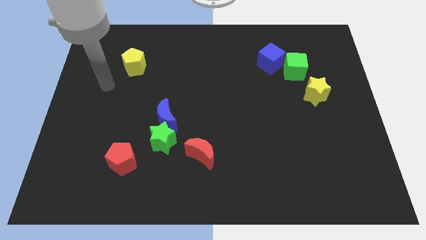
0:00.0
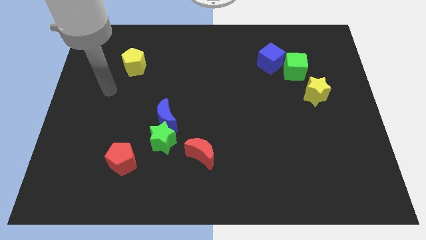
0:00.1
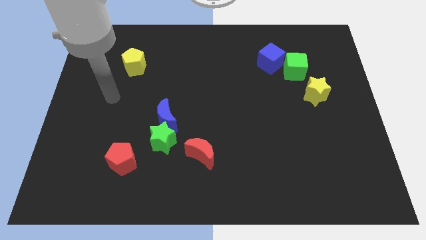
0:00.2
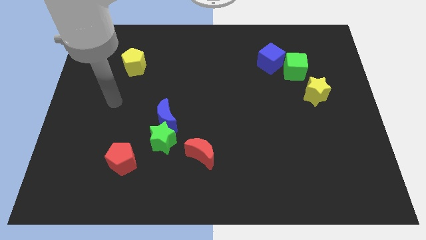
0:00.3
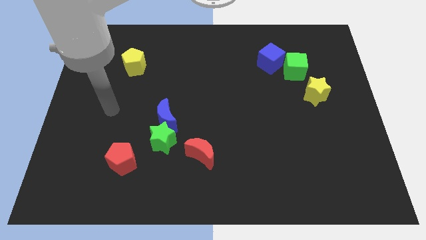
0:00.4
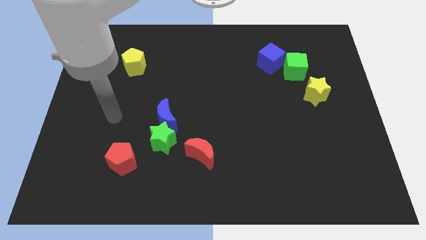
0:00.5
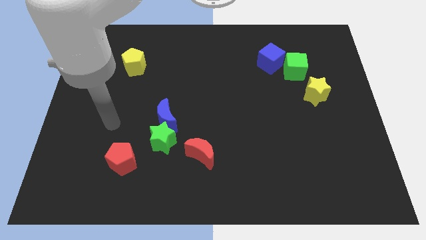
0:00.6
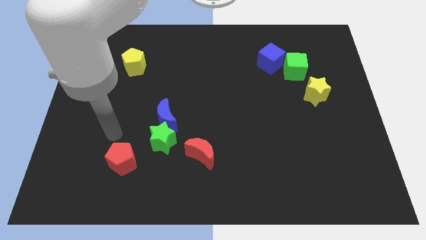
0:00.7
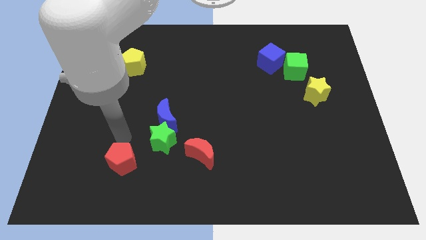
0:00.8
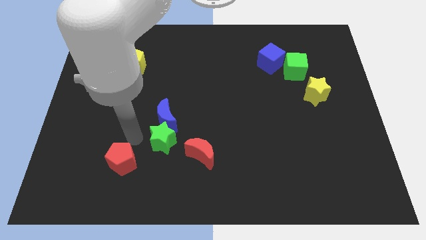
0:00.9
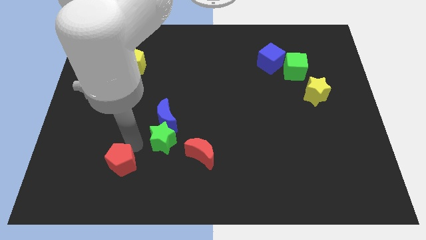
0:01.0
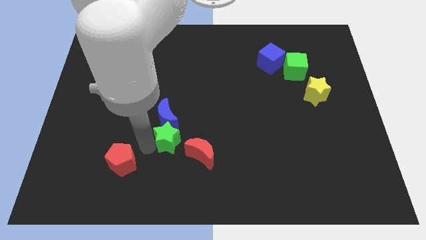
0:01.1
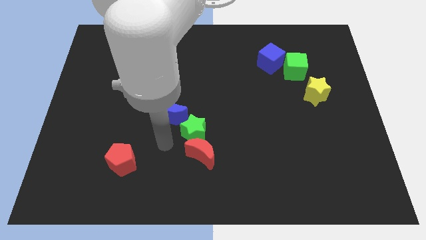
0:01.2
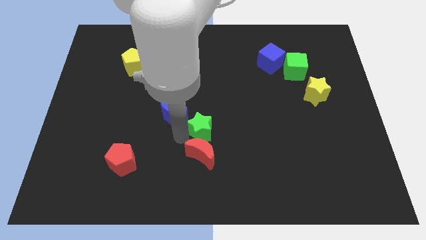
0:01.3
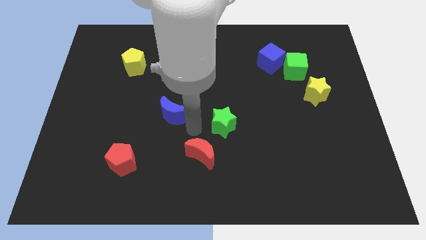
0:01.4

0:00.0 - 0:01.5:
pull the blue moon apart from the green star

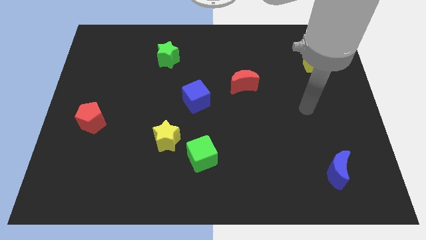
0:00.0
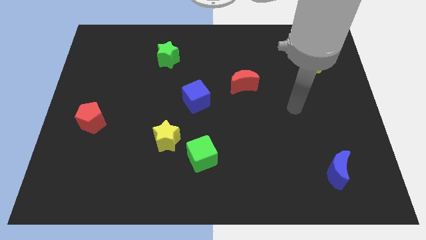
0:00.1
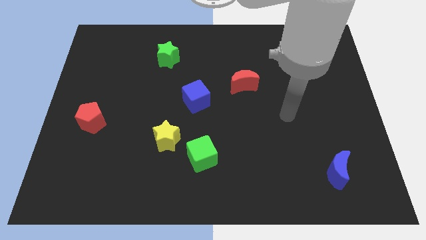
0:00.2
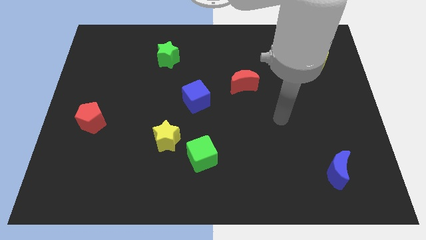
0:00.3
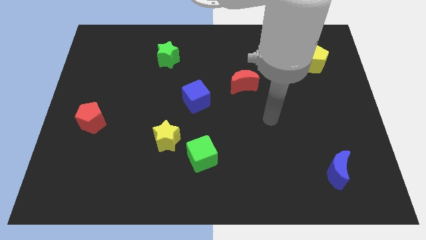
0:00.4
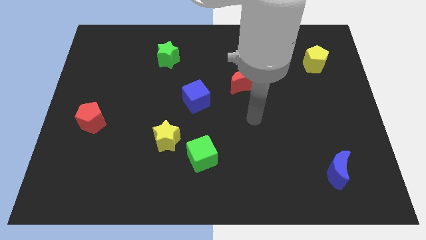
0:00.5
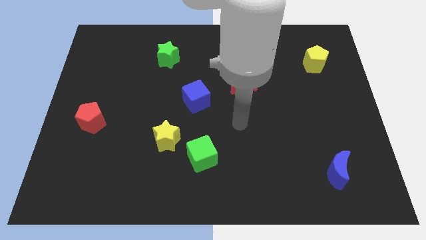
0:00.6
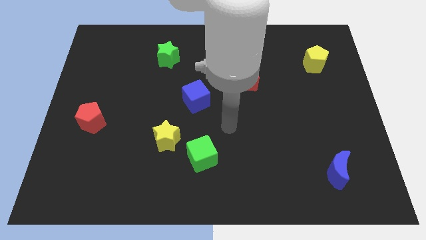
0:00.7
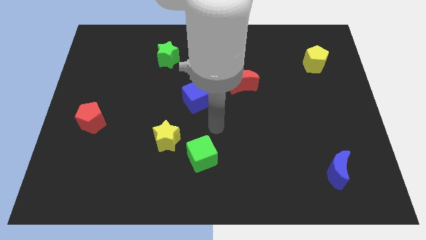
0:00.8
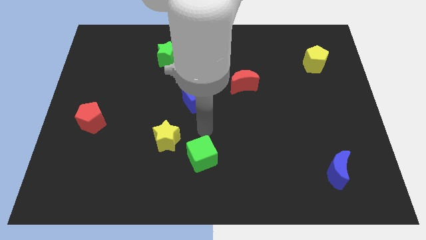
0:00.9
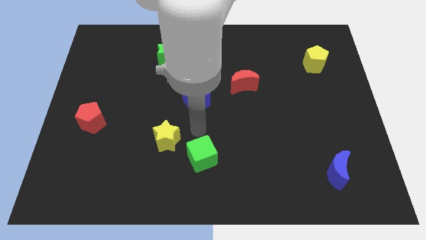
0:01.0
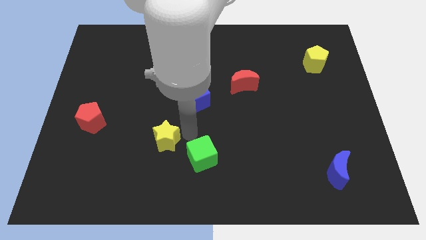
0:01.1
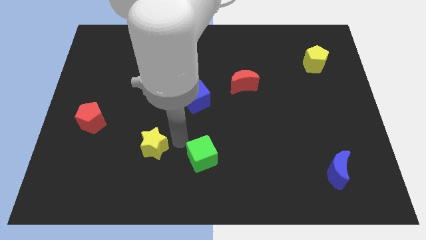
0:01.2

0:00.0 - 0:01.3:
pull the green cube apart from the yellow star

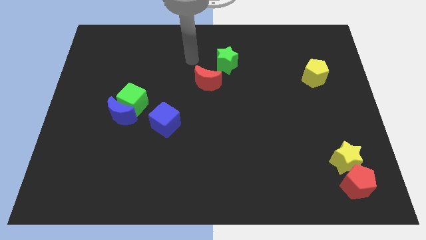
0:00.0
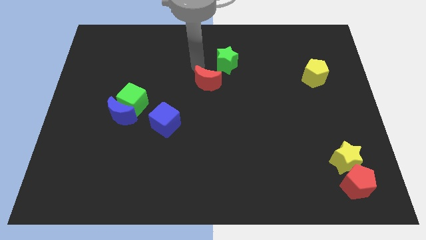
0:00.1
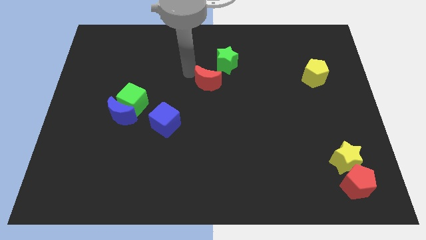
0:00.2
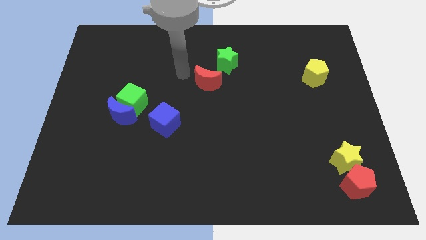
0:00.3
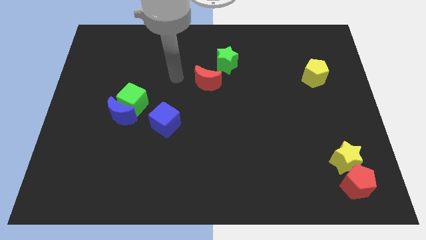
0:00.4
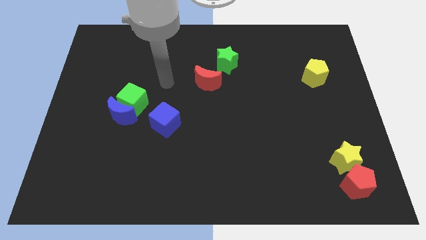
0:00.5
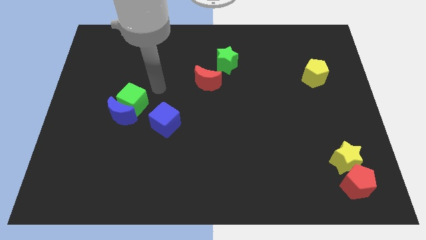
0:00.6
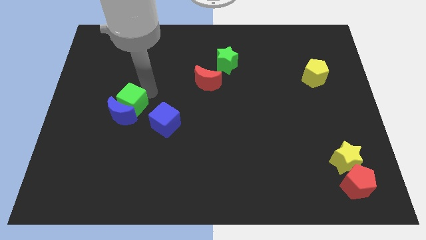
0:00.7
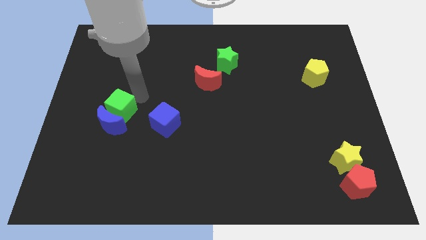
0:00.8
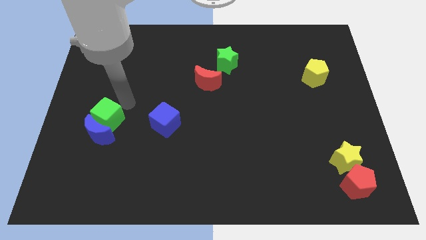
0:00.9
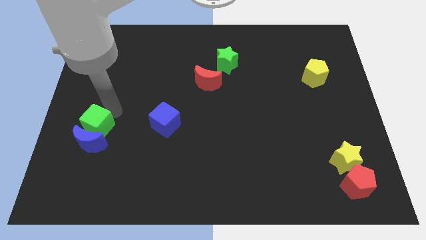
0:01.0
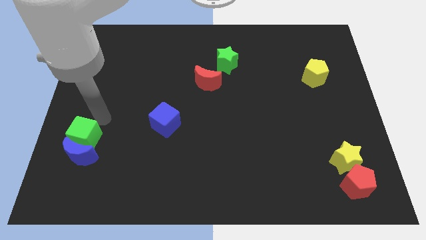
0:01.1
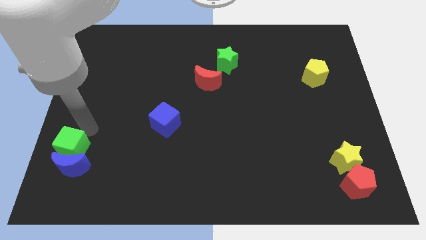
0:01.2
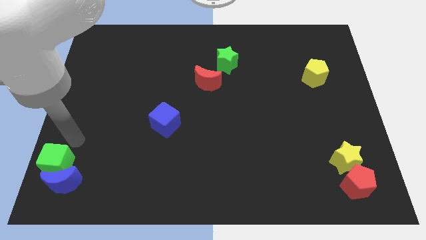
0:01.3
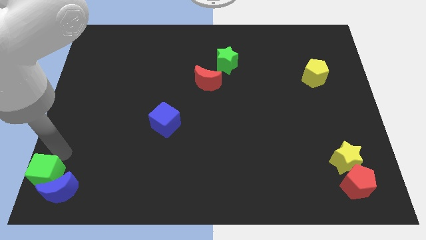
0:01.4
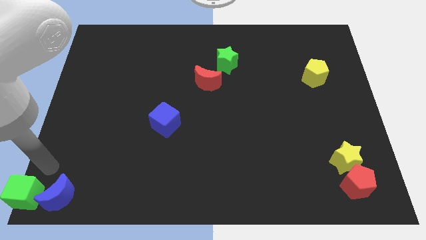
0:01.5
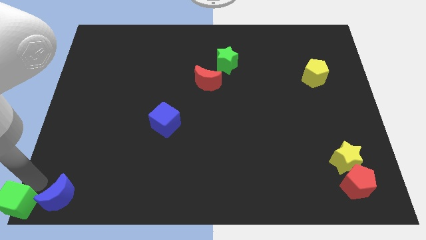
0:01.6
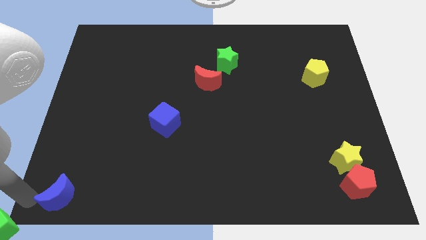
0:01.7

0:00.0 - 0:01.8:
separate the blue moon from the green cube

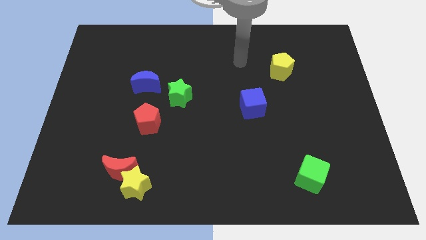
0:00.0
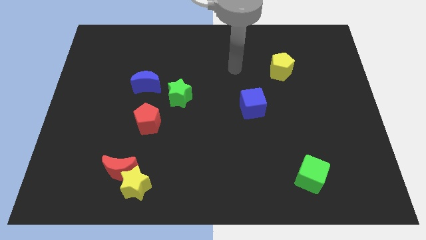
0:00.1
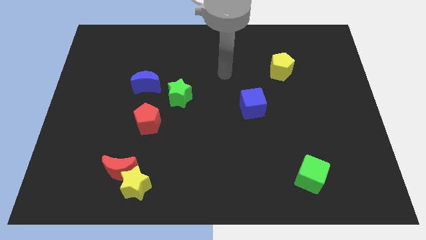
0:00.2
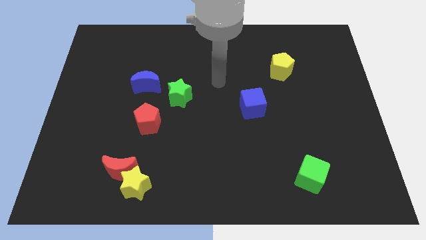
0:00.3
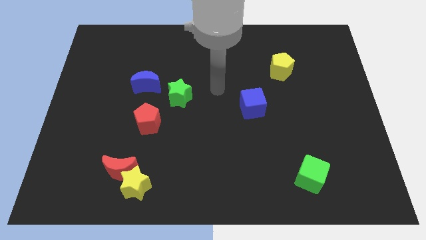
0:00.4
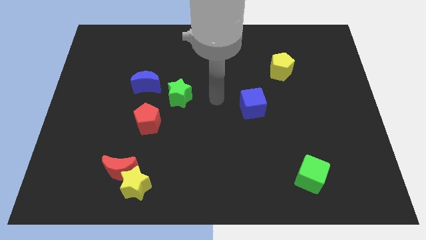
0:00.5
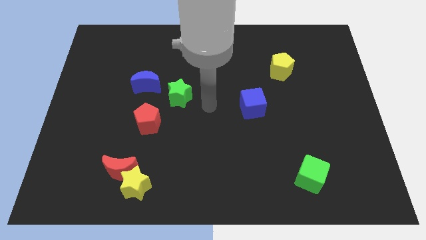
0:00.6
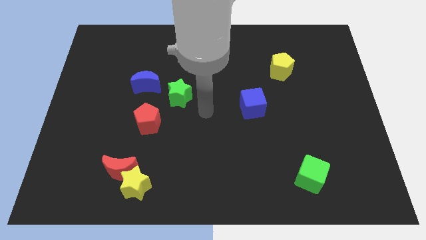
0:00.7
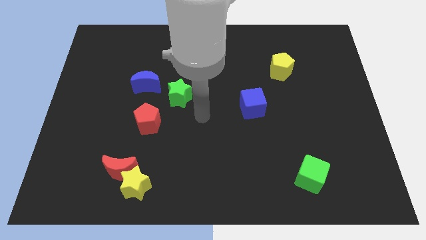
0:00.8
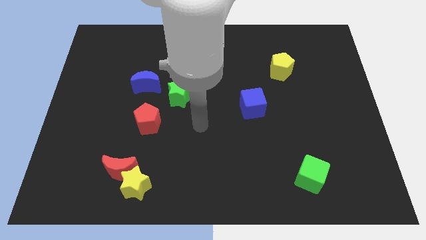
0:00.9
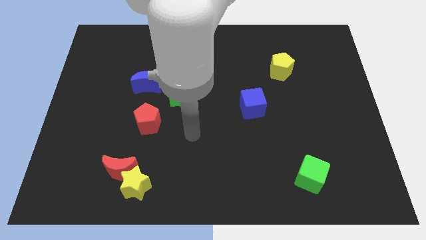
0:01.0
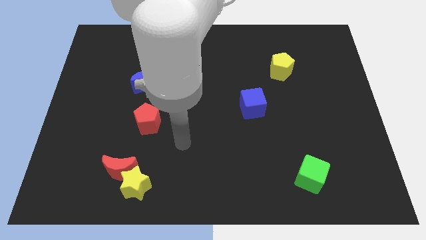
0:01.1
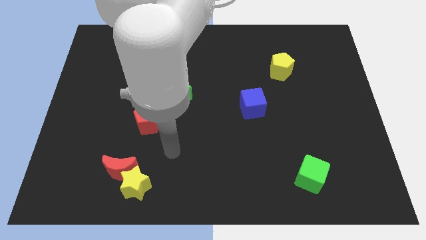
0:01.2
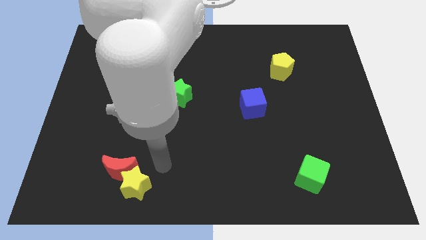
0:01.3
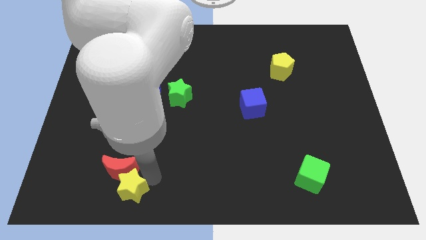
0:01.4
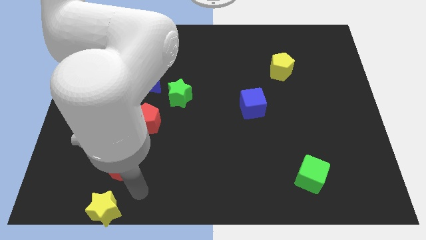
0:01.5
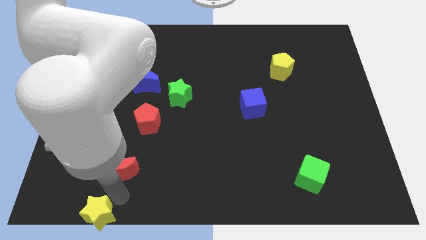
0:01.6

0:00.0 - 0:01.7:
pull the red moon apart from the yellow star

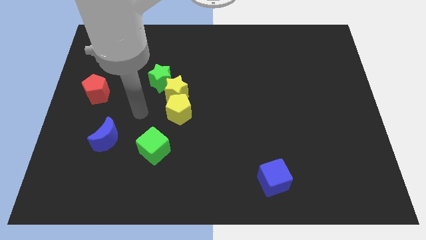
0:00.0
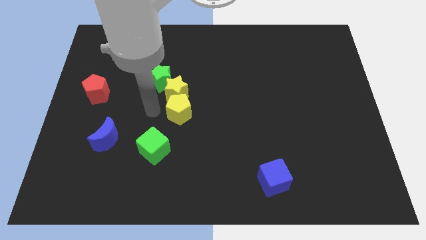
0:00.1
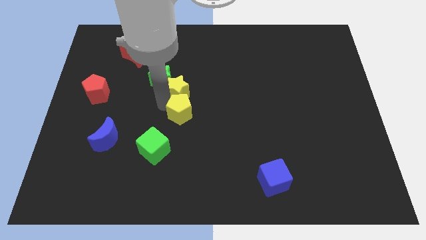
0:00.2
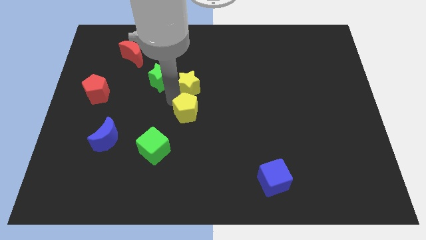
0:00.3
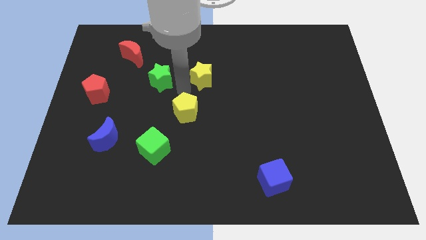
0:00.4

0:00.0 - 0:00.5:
move the green star away from the yellow star

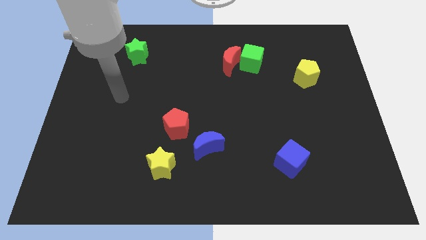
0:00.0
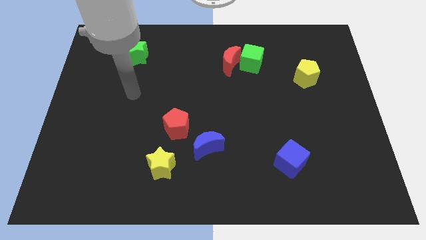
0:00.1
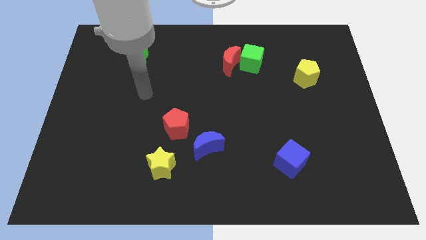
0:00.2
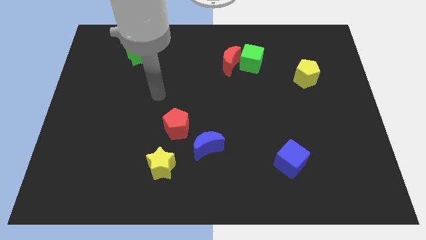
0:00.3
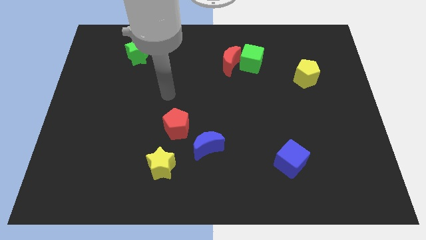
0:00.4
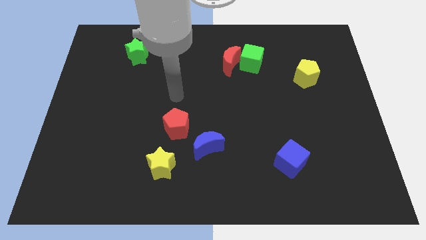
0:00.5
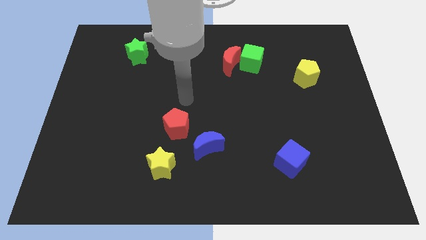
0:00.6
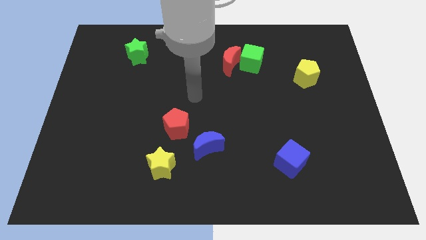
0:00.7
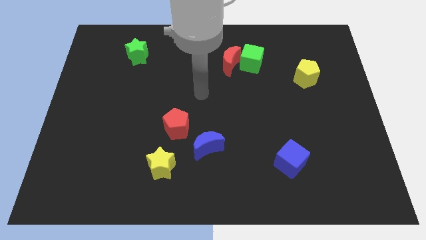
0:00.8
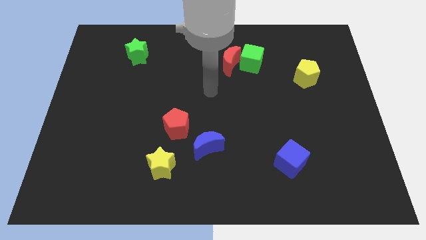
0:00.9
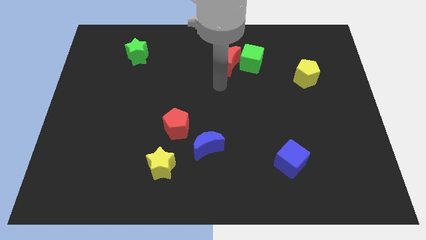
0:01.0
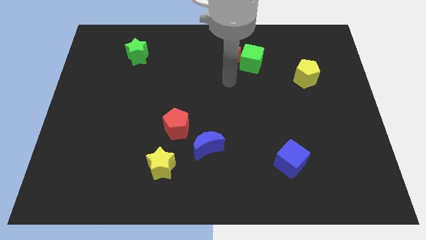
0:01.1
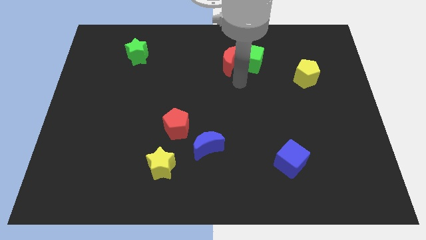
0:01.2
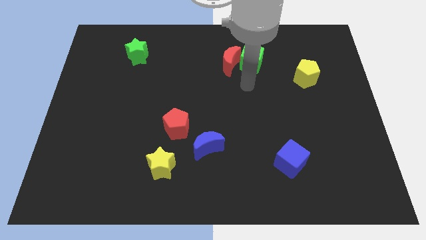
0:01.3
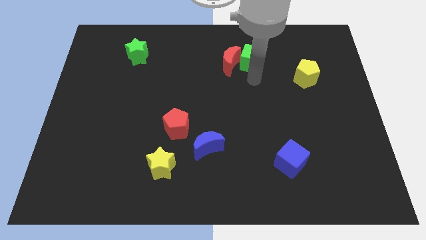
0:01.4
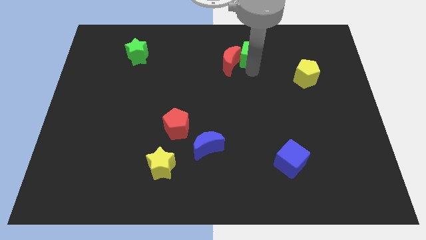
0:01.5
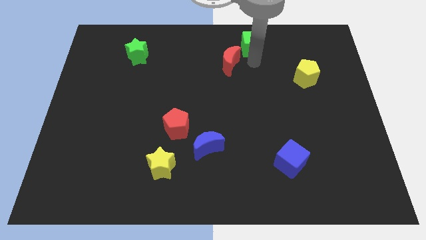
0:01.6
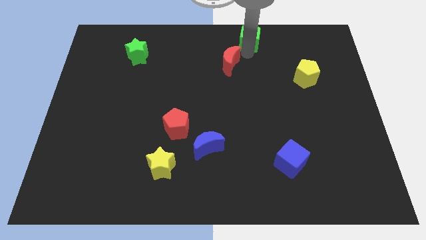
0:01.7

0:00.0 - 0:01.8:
move the red moon away from the green cube

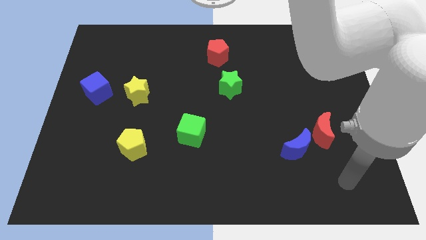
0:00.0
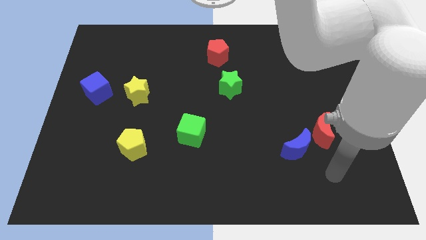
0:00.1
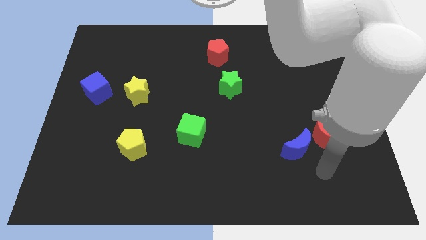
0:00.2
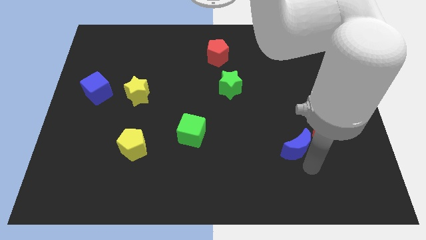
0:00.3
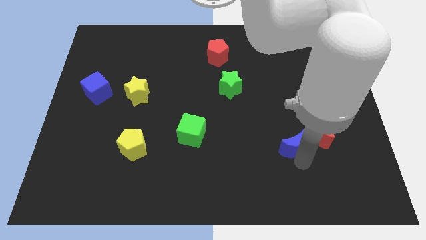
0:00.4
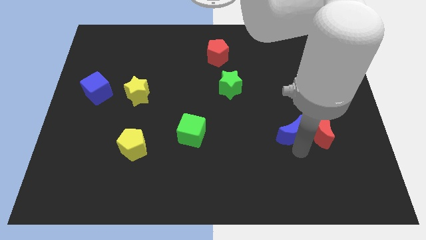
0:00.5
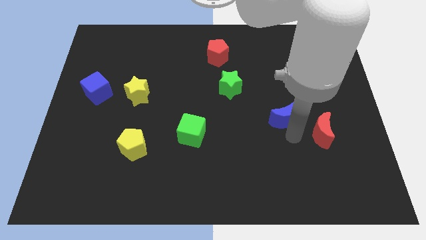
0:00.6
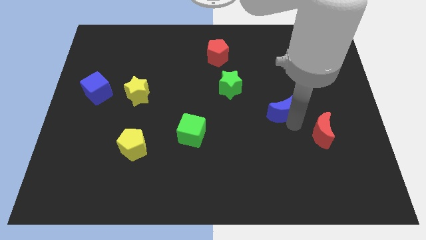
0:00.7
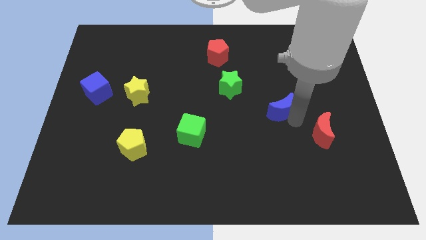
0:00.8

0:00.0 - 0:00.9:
separate the red moon from the blue moon
